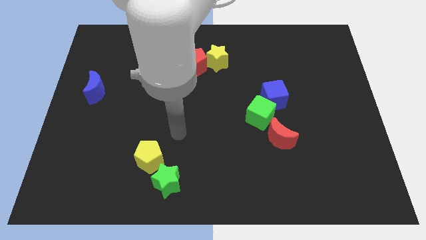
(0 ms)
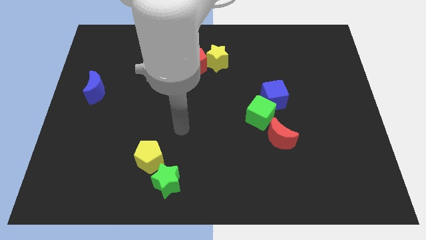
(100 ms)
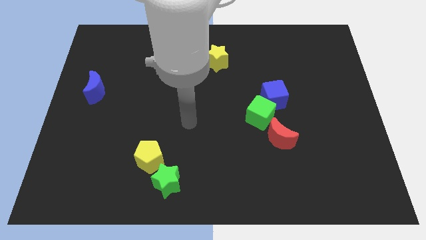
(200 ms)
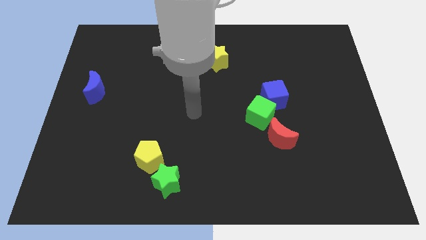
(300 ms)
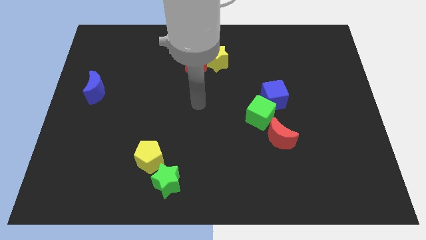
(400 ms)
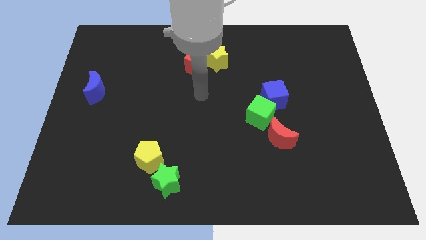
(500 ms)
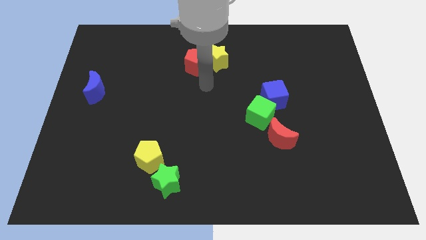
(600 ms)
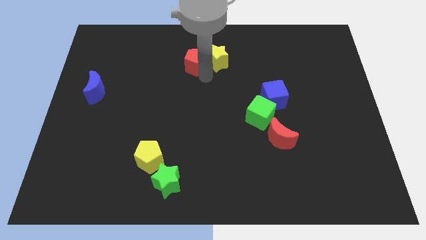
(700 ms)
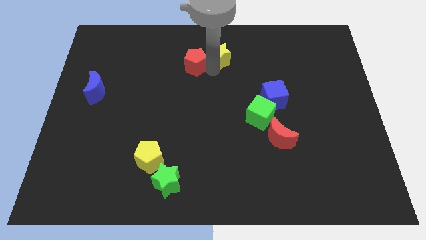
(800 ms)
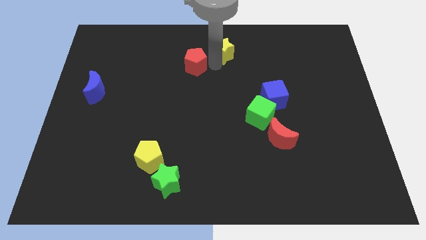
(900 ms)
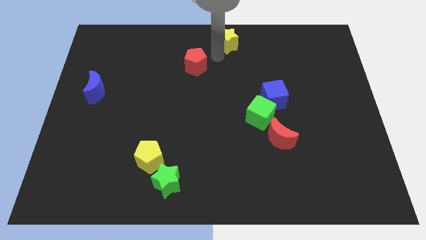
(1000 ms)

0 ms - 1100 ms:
pull the red pentagon apart from the yellow star

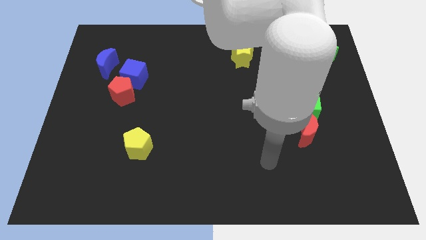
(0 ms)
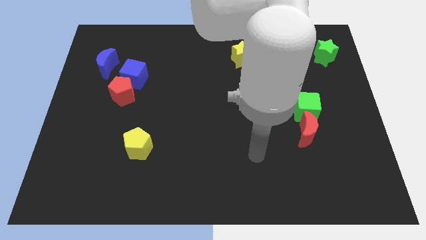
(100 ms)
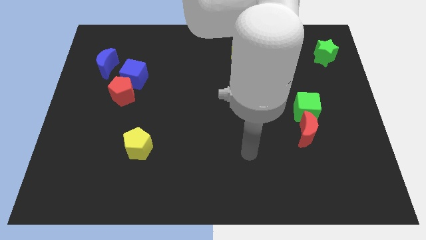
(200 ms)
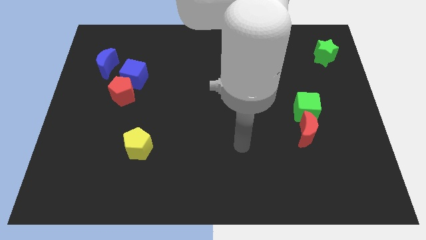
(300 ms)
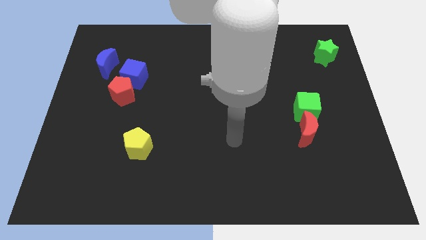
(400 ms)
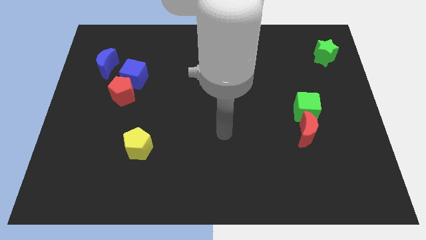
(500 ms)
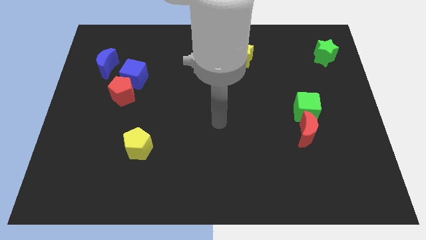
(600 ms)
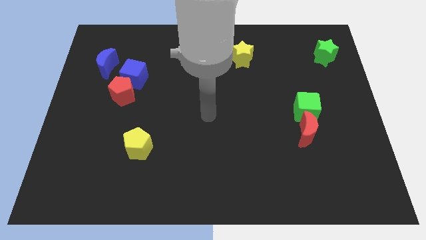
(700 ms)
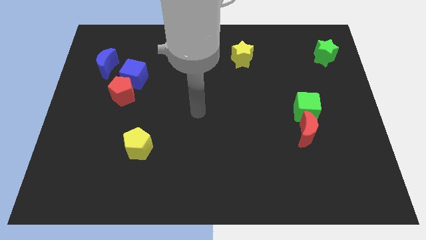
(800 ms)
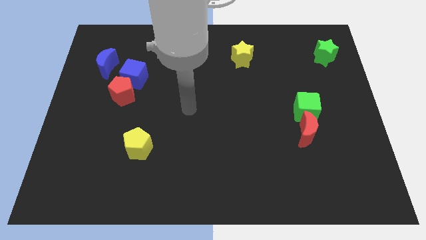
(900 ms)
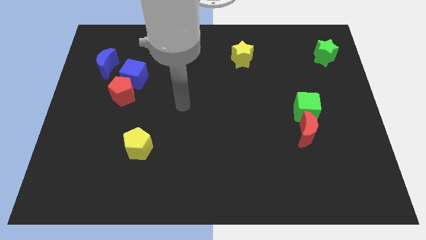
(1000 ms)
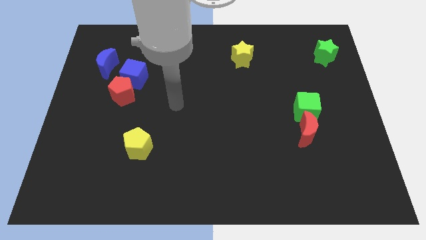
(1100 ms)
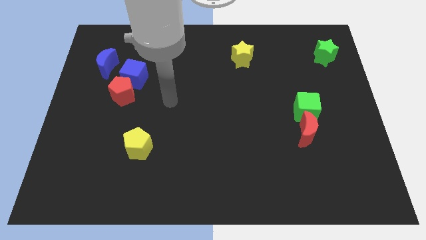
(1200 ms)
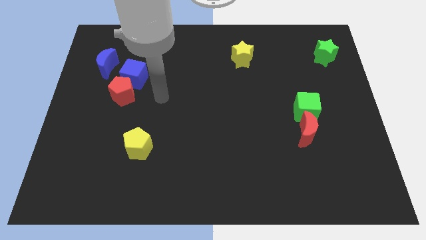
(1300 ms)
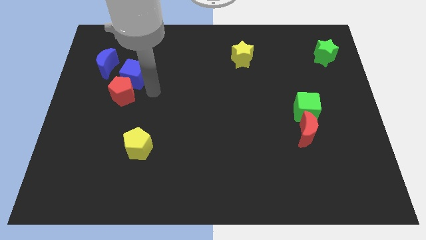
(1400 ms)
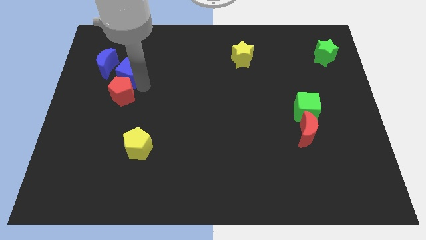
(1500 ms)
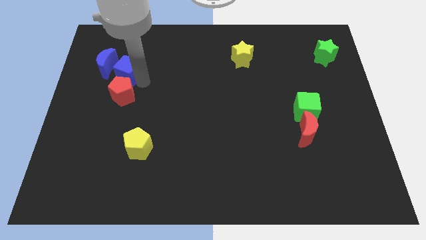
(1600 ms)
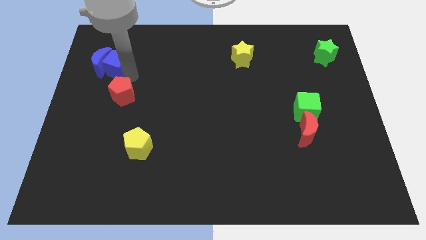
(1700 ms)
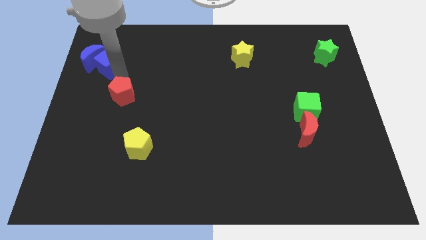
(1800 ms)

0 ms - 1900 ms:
pull the red pentagon apart from the blue cube

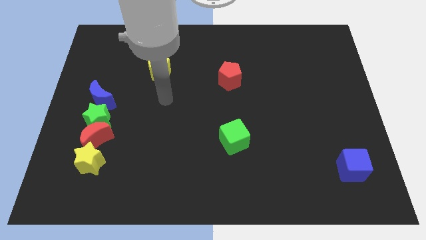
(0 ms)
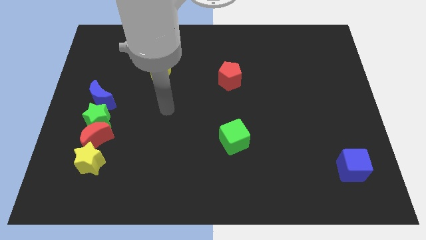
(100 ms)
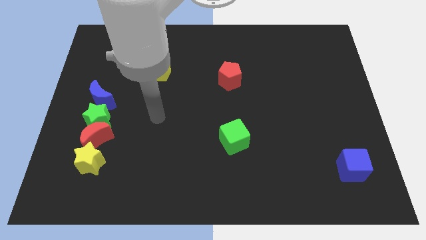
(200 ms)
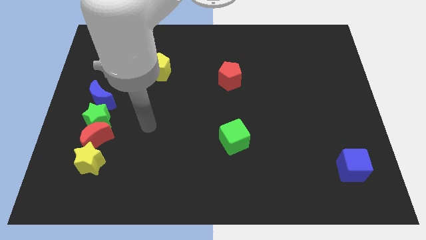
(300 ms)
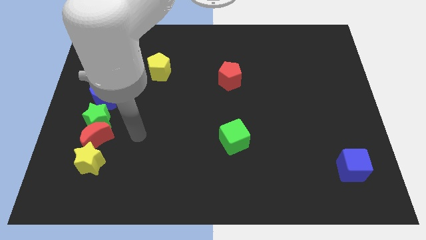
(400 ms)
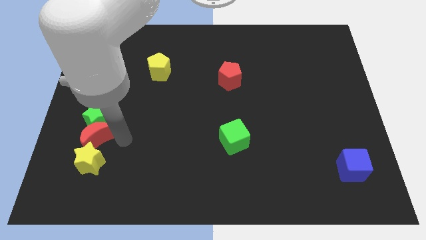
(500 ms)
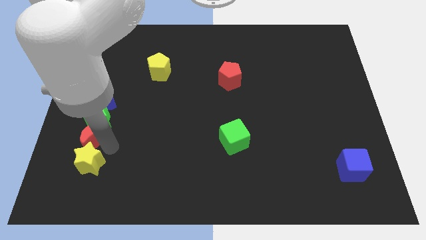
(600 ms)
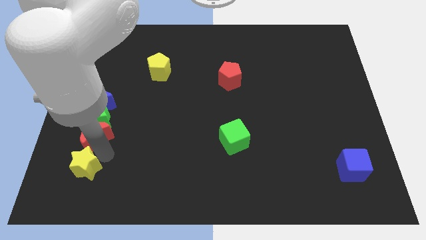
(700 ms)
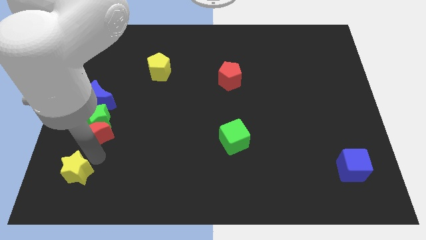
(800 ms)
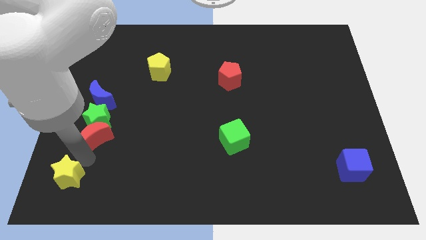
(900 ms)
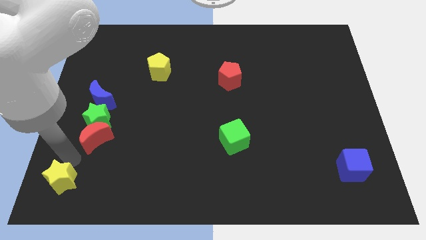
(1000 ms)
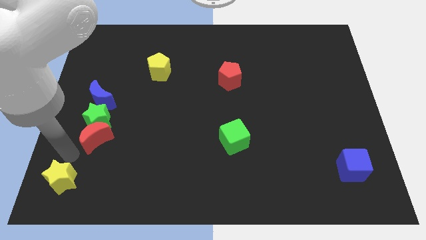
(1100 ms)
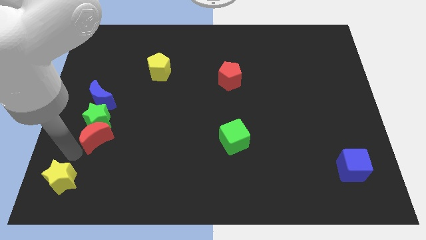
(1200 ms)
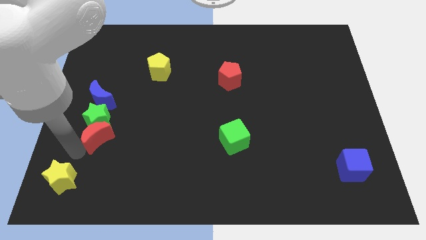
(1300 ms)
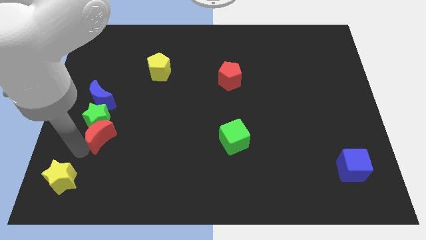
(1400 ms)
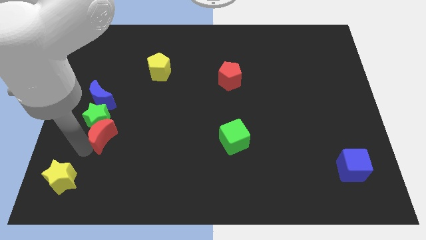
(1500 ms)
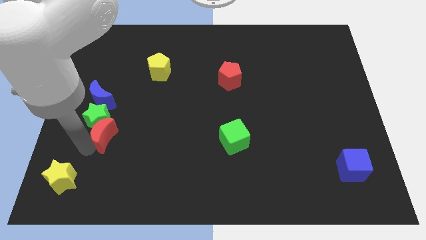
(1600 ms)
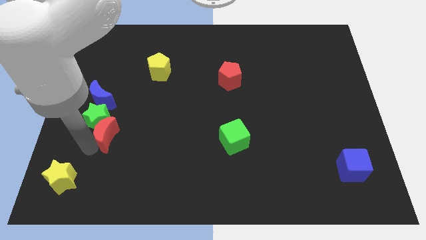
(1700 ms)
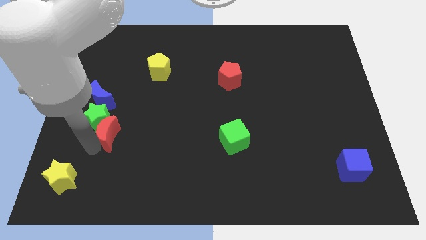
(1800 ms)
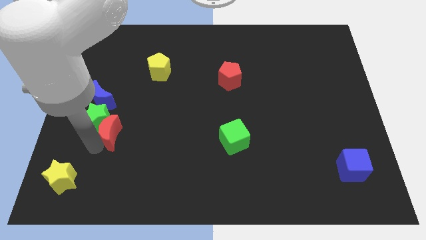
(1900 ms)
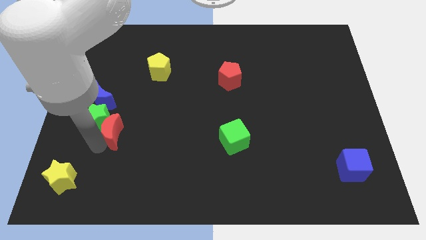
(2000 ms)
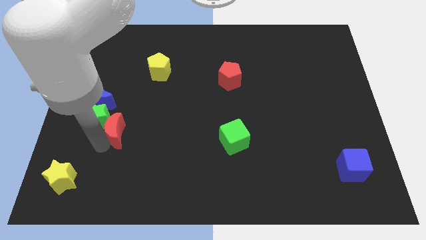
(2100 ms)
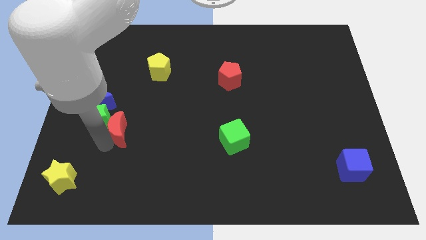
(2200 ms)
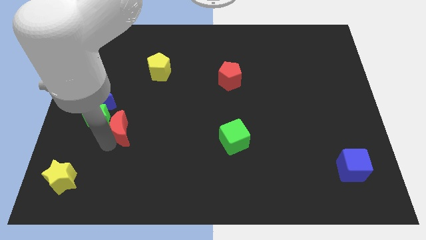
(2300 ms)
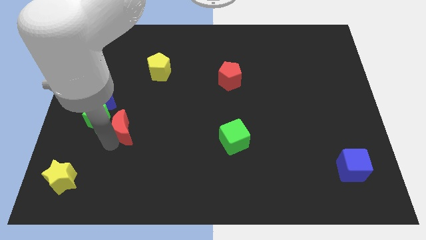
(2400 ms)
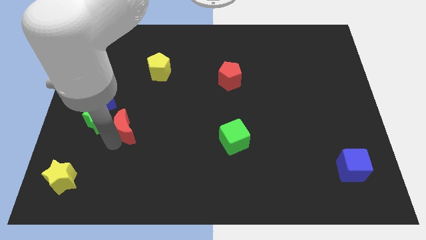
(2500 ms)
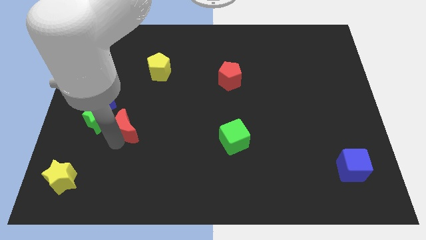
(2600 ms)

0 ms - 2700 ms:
pull the red moon apart from the green star and yellow star

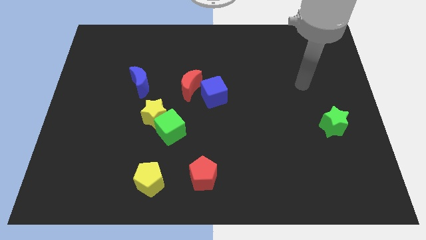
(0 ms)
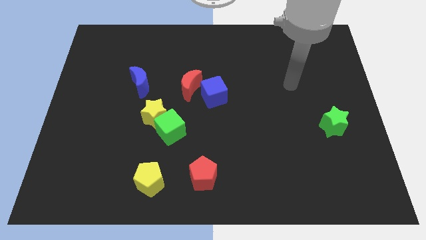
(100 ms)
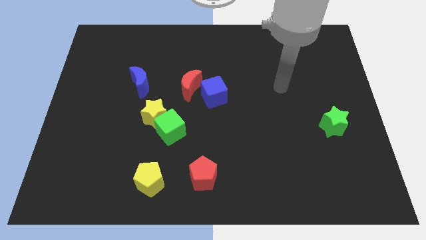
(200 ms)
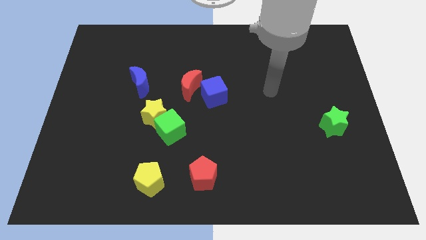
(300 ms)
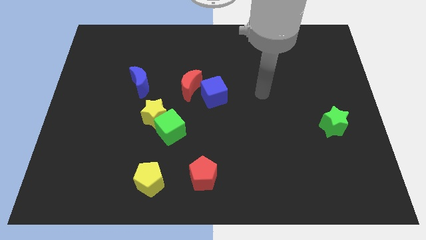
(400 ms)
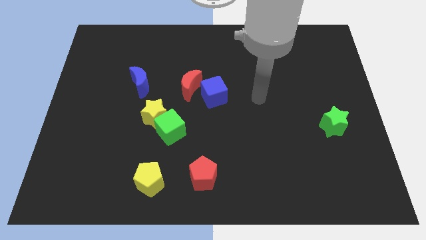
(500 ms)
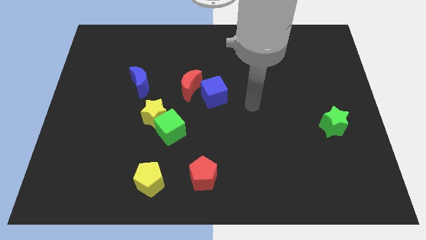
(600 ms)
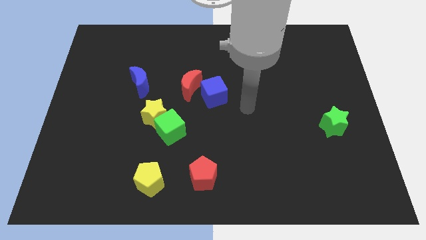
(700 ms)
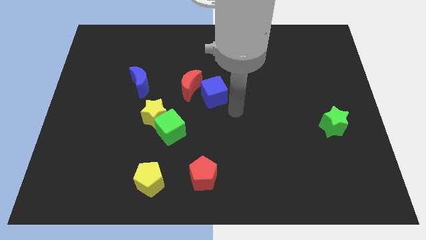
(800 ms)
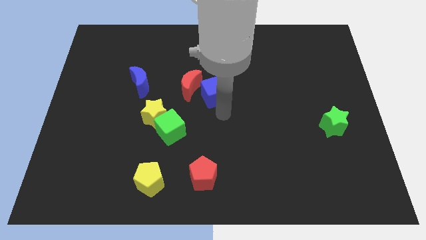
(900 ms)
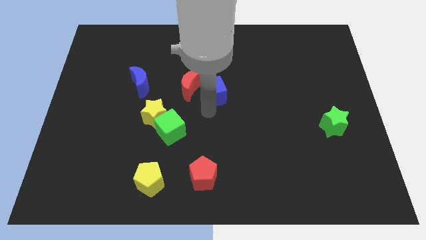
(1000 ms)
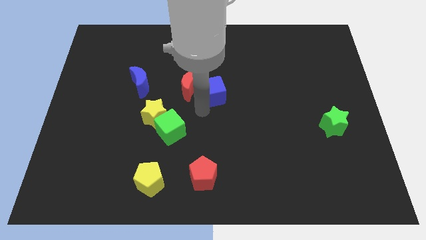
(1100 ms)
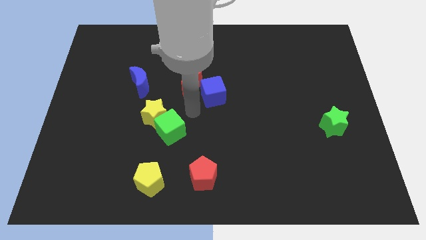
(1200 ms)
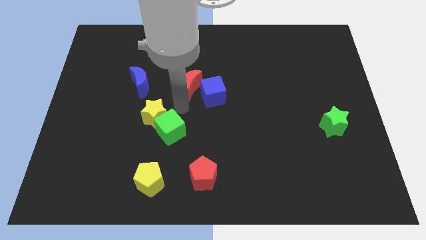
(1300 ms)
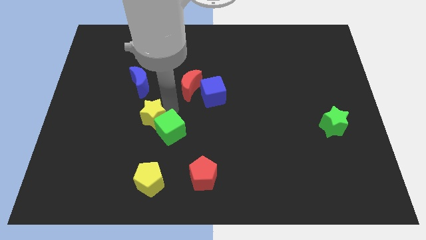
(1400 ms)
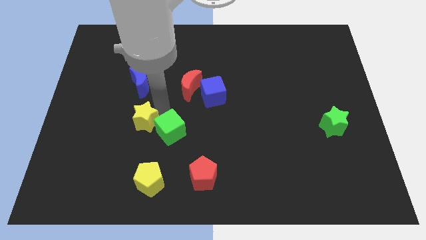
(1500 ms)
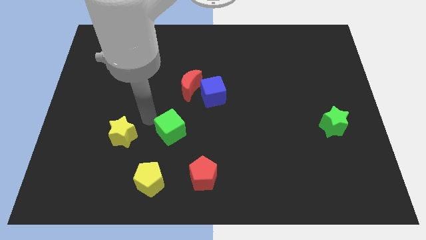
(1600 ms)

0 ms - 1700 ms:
move the green cube away from the yellow star

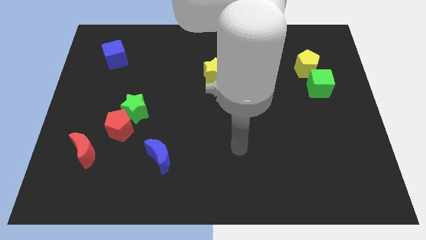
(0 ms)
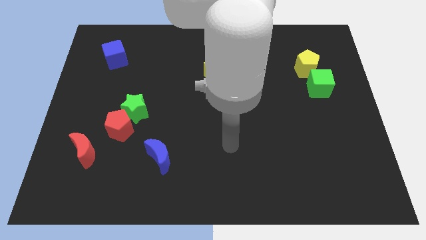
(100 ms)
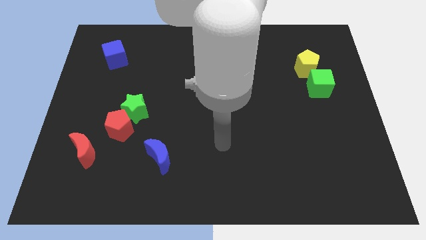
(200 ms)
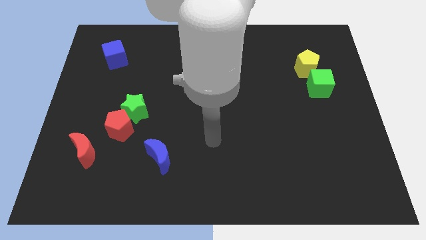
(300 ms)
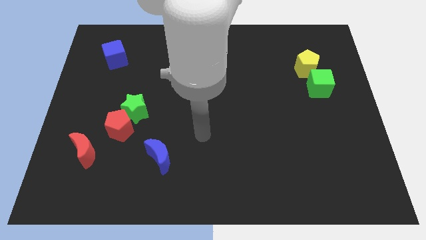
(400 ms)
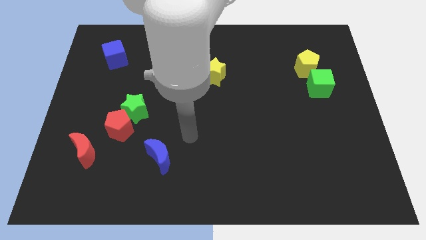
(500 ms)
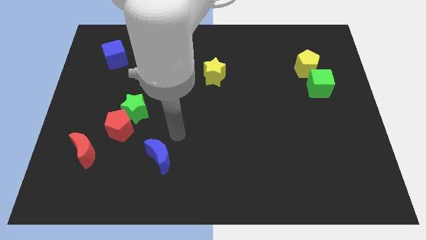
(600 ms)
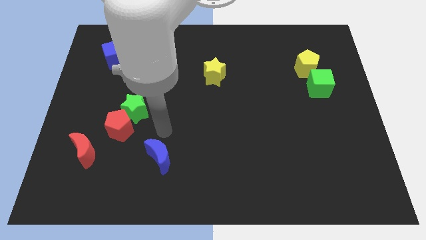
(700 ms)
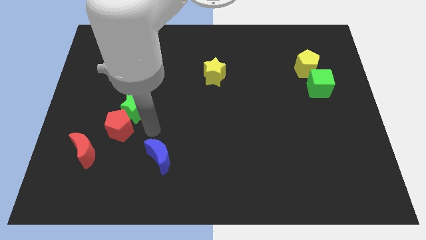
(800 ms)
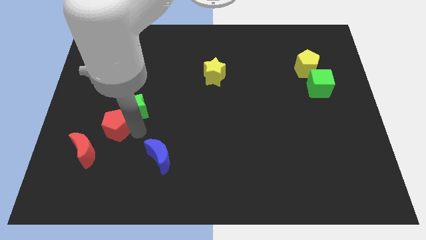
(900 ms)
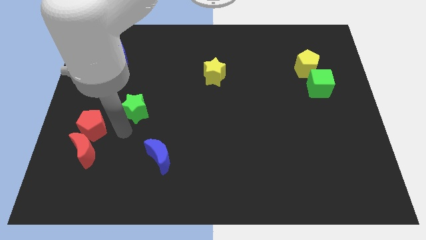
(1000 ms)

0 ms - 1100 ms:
separate the green star from the red pentagon

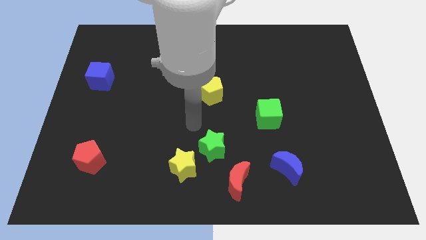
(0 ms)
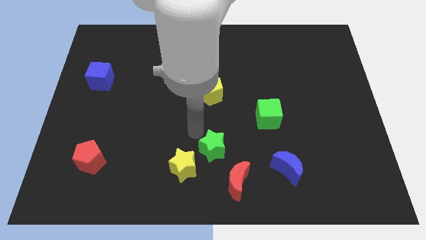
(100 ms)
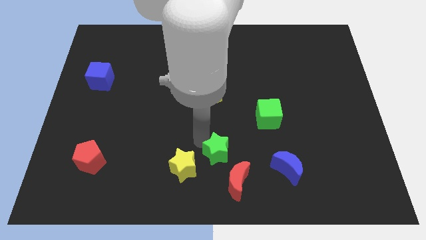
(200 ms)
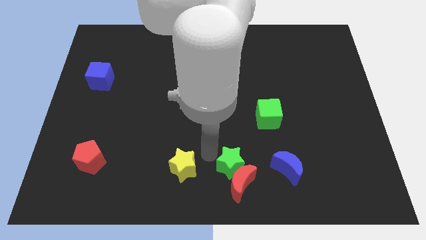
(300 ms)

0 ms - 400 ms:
separate the yellow star from the green star

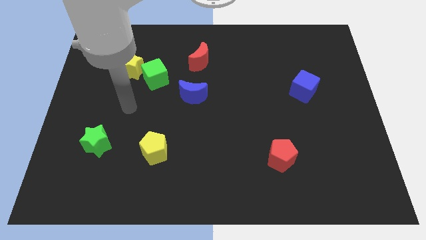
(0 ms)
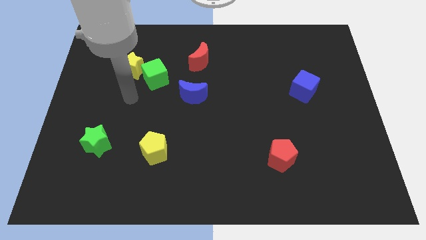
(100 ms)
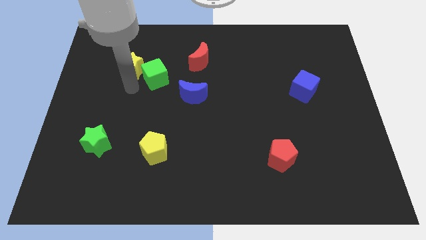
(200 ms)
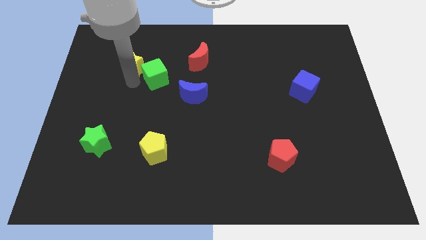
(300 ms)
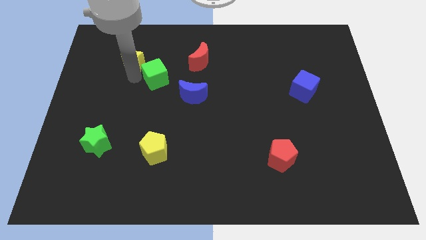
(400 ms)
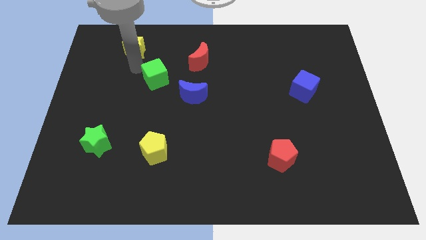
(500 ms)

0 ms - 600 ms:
separate the green cube from the yellow star
